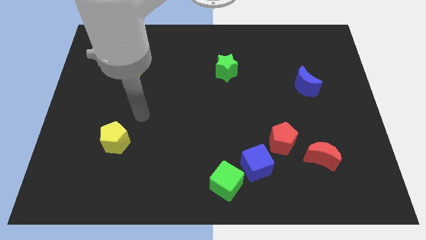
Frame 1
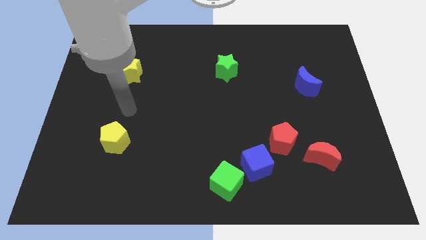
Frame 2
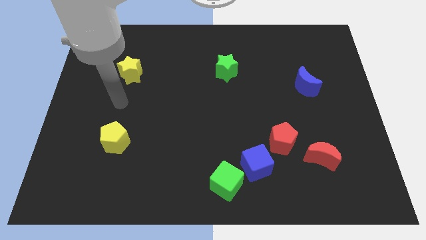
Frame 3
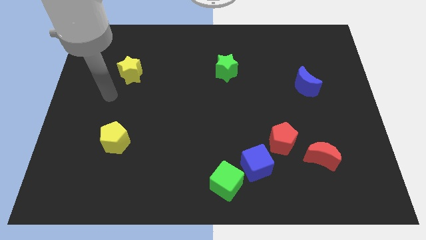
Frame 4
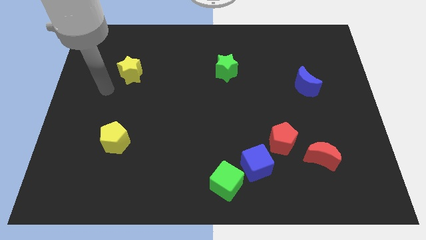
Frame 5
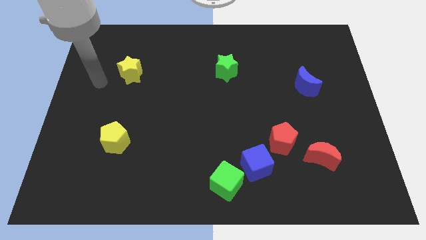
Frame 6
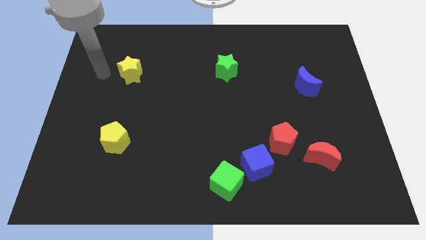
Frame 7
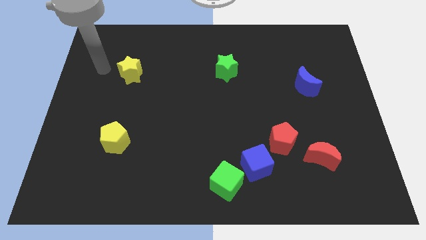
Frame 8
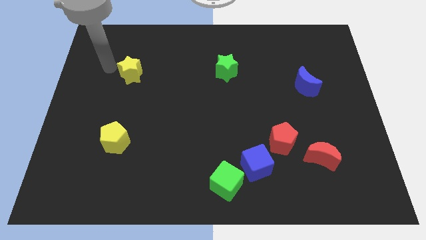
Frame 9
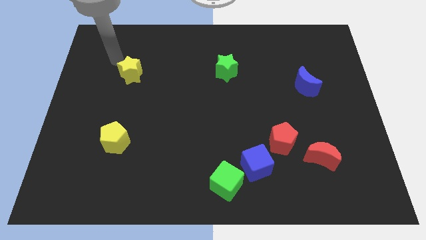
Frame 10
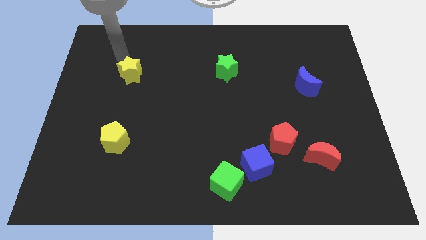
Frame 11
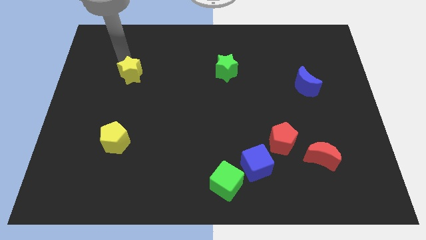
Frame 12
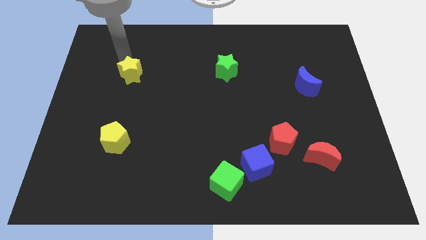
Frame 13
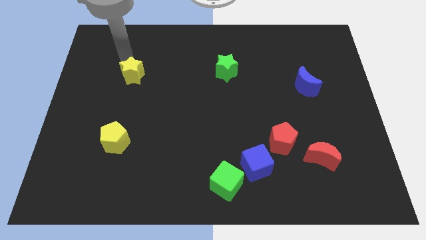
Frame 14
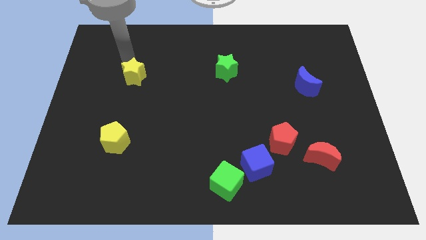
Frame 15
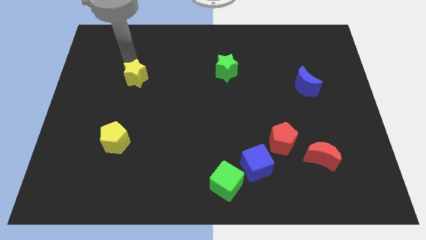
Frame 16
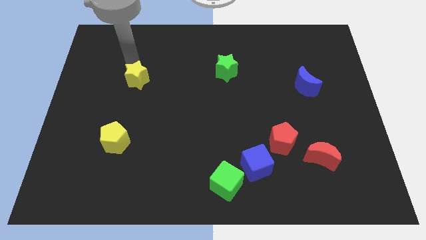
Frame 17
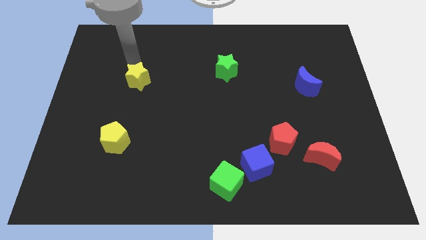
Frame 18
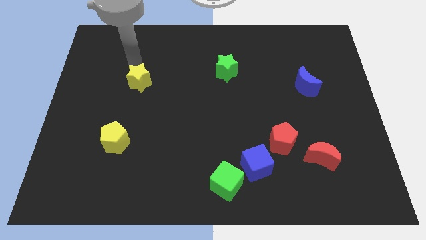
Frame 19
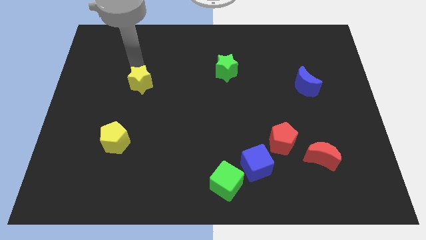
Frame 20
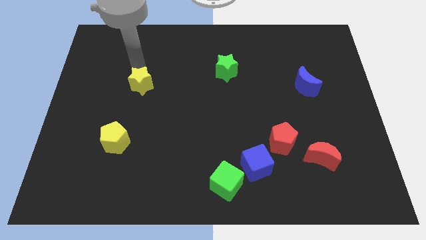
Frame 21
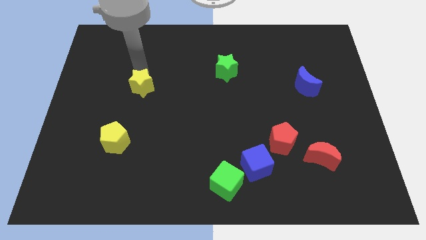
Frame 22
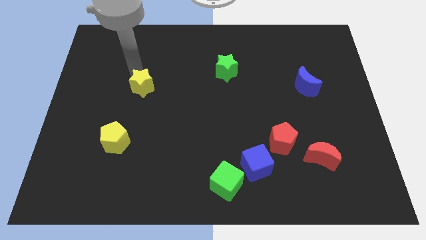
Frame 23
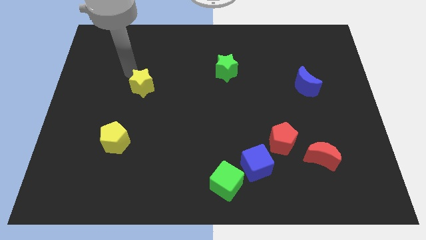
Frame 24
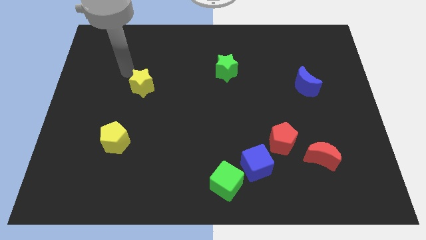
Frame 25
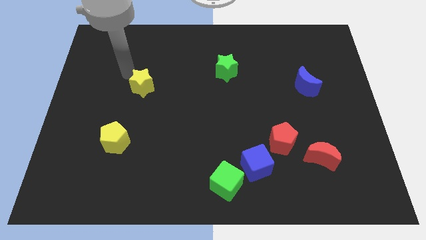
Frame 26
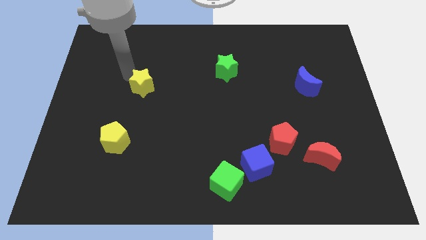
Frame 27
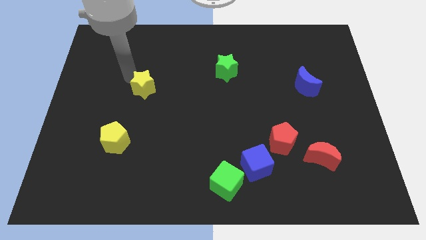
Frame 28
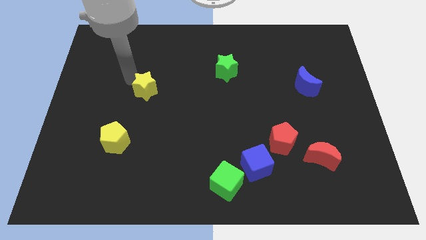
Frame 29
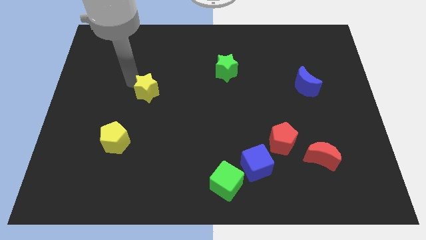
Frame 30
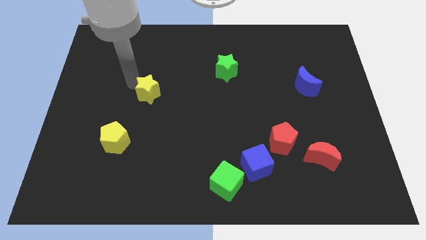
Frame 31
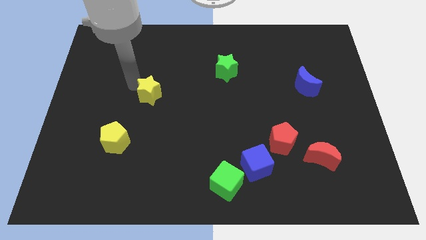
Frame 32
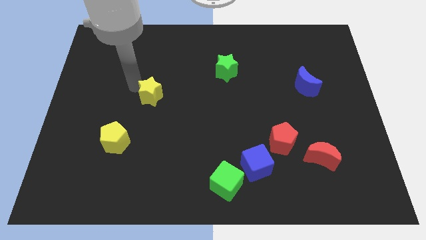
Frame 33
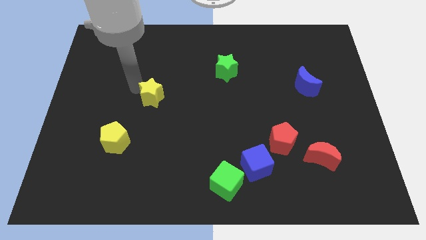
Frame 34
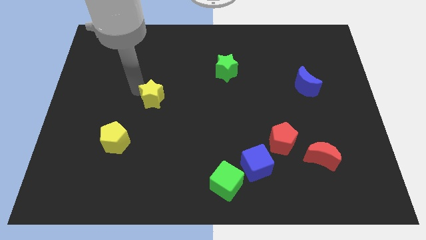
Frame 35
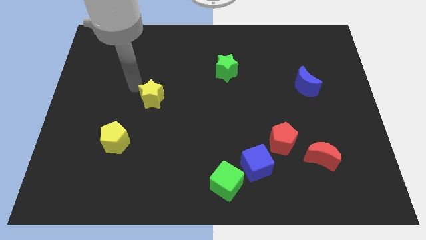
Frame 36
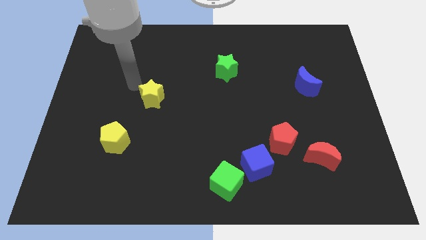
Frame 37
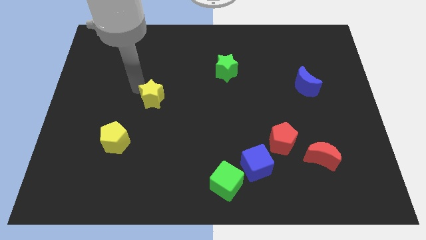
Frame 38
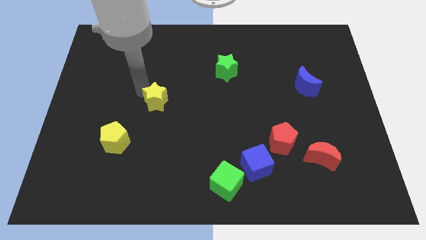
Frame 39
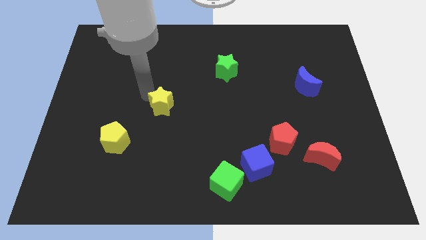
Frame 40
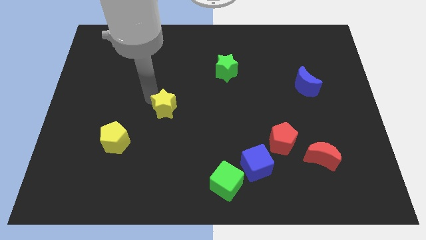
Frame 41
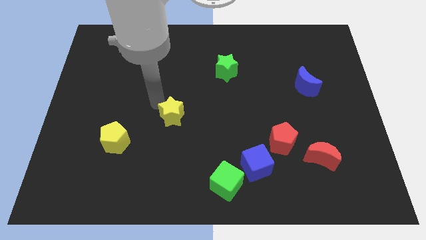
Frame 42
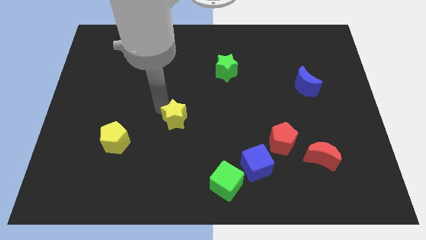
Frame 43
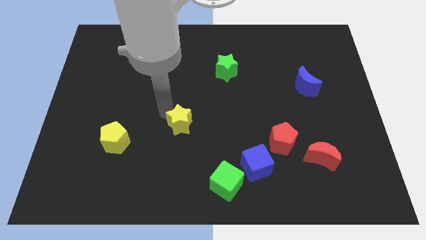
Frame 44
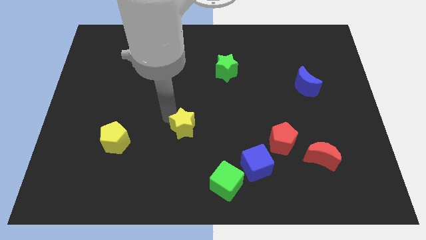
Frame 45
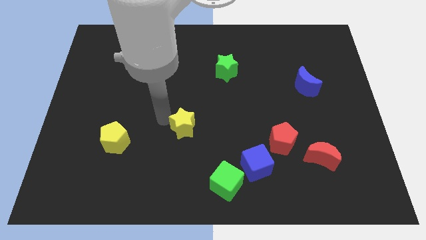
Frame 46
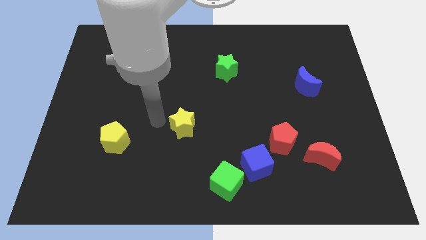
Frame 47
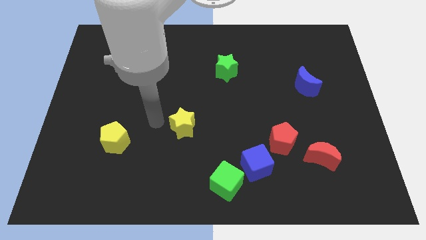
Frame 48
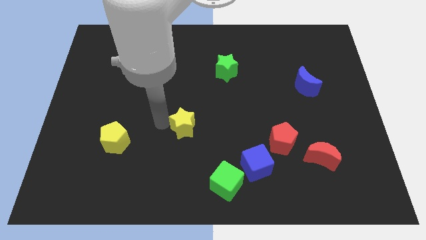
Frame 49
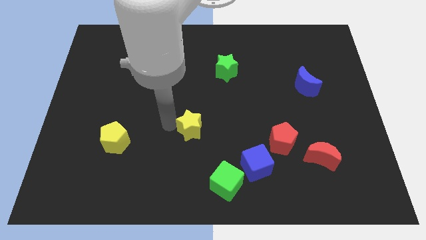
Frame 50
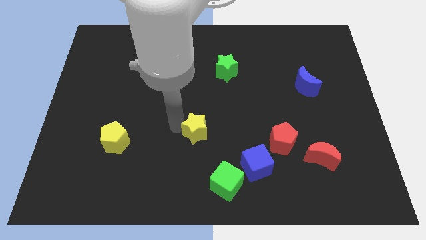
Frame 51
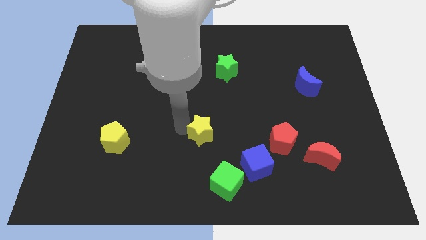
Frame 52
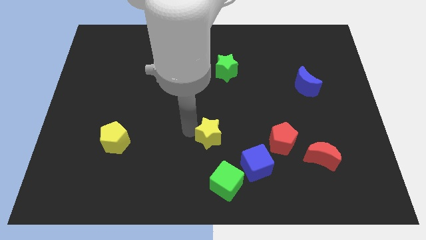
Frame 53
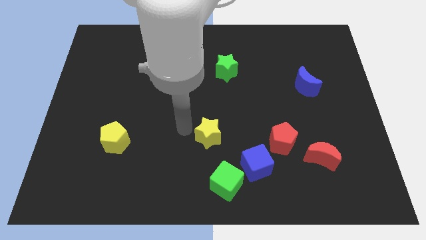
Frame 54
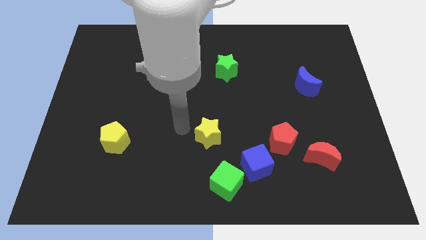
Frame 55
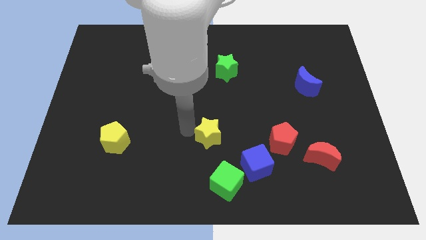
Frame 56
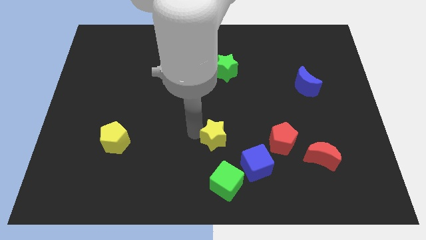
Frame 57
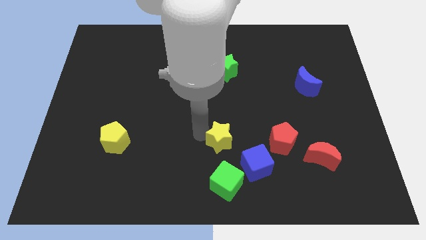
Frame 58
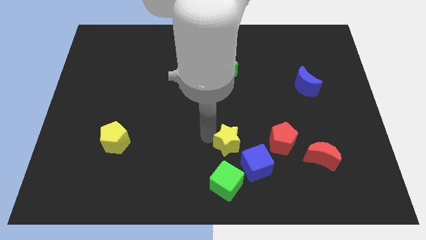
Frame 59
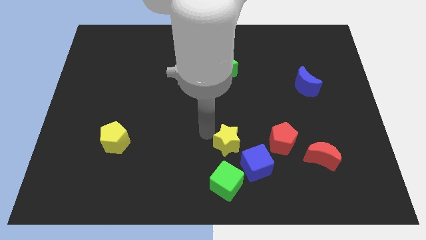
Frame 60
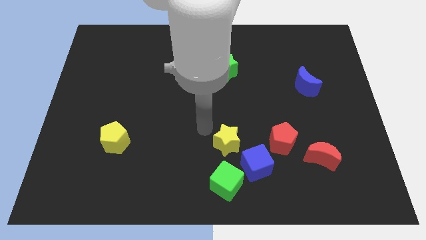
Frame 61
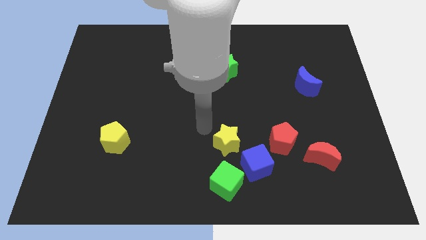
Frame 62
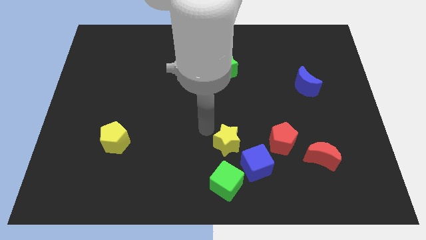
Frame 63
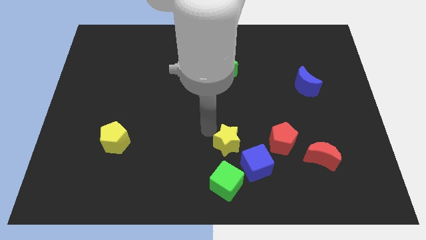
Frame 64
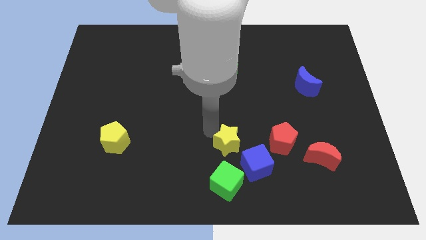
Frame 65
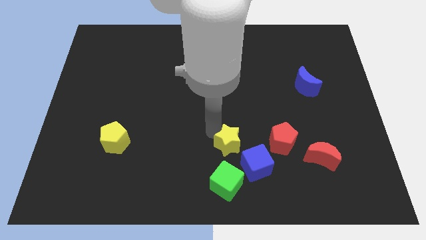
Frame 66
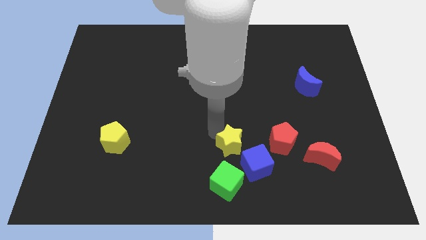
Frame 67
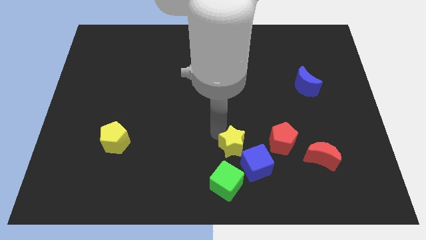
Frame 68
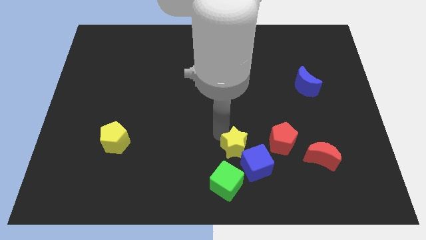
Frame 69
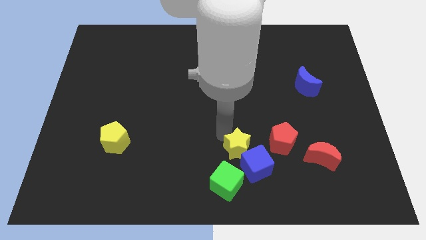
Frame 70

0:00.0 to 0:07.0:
push the yellow star next to the blue cube
